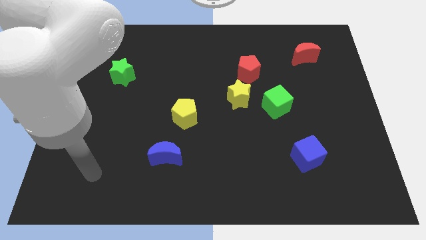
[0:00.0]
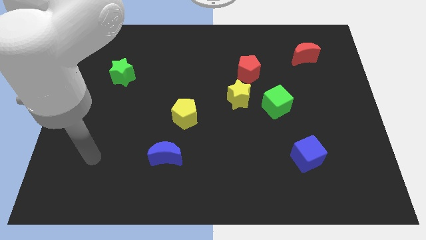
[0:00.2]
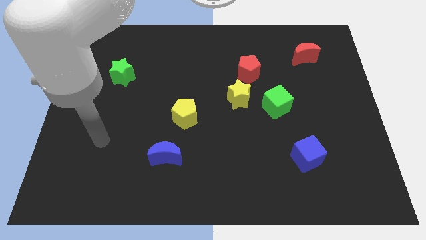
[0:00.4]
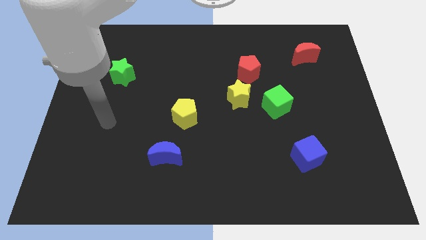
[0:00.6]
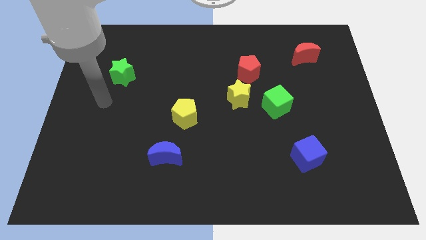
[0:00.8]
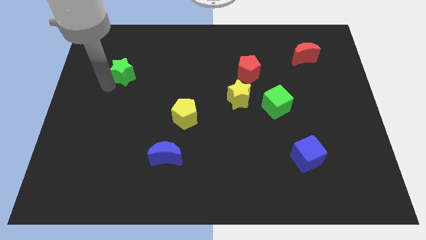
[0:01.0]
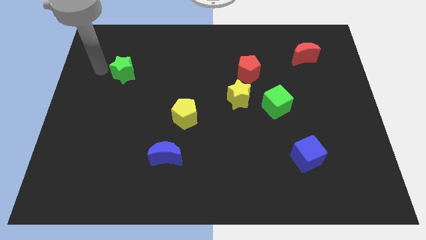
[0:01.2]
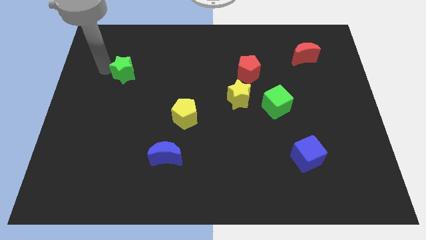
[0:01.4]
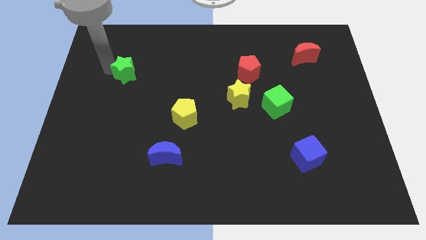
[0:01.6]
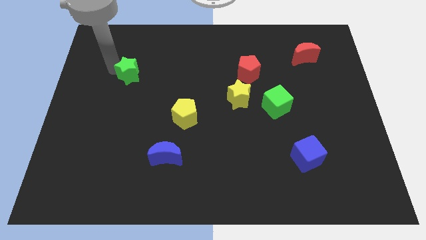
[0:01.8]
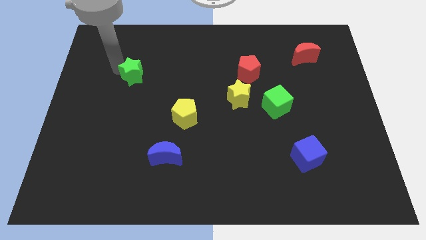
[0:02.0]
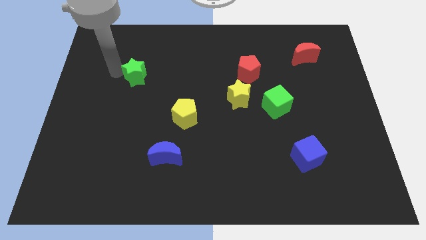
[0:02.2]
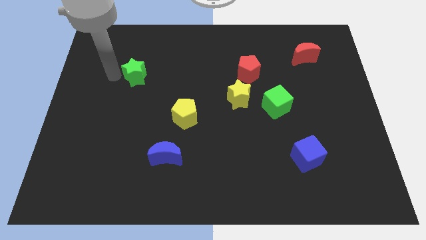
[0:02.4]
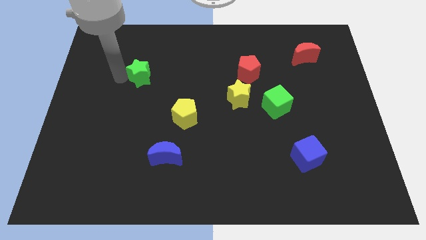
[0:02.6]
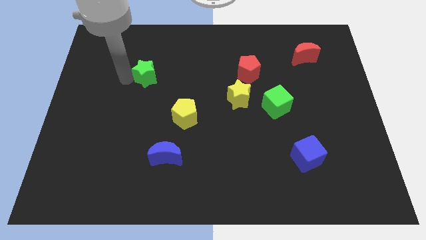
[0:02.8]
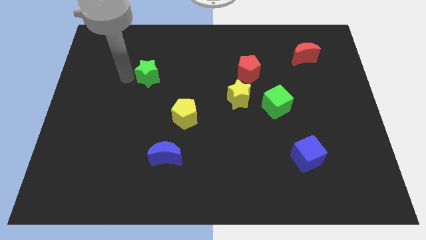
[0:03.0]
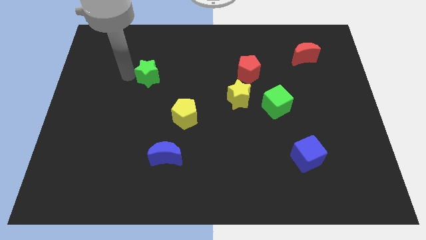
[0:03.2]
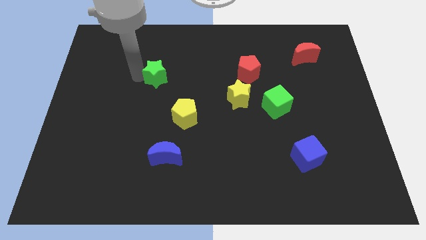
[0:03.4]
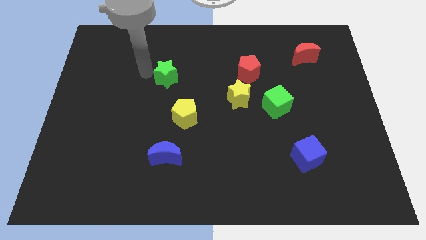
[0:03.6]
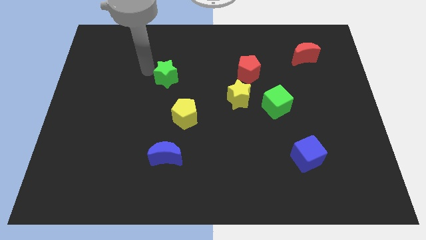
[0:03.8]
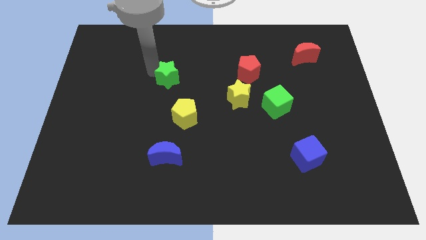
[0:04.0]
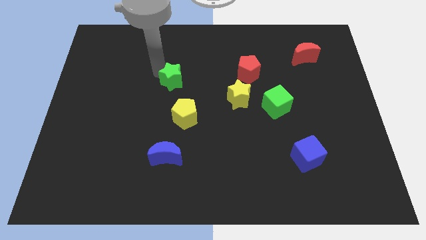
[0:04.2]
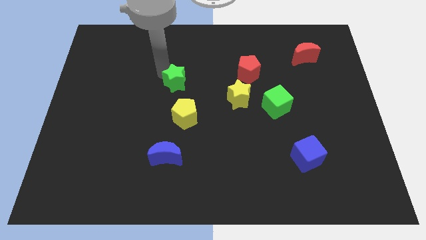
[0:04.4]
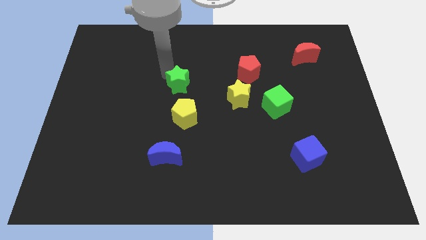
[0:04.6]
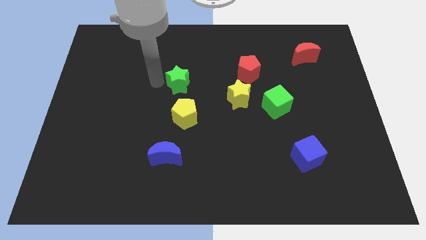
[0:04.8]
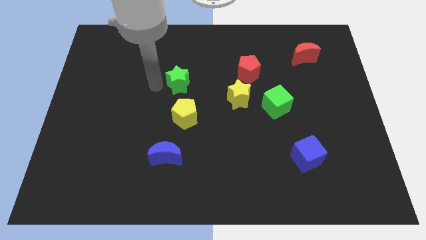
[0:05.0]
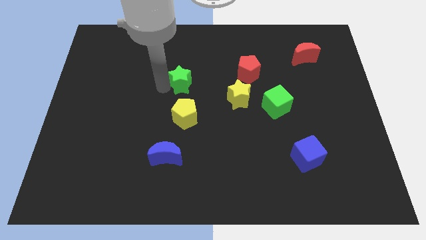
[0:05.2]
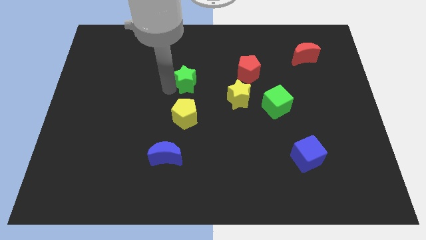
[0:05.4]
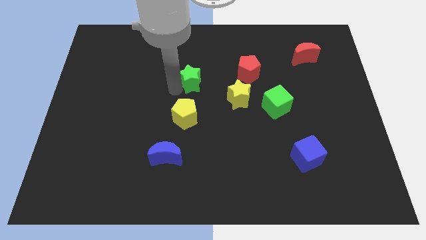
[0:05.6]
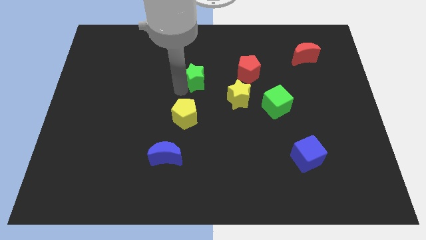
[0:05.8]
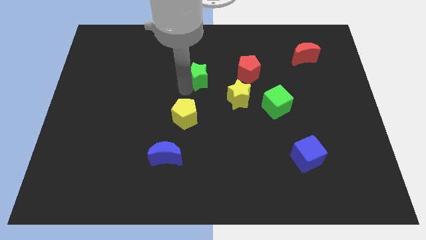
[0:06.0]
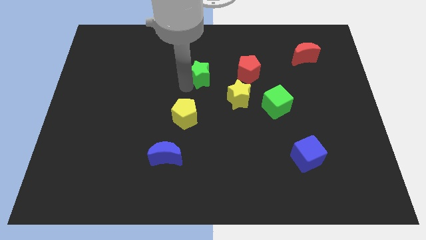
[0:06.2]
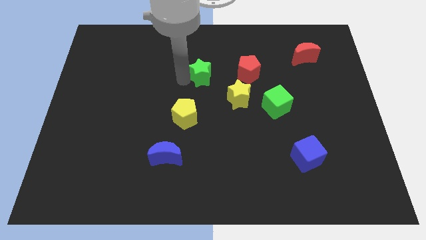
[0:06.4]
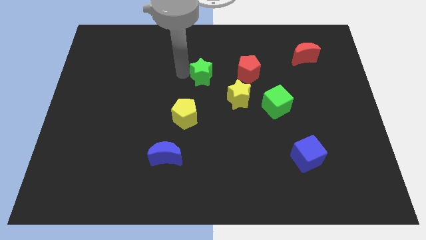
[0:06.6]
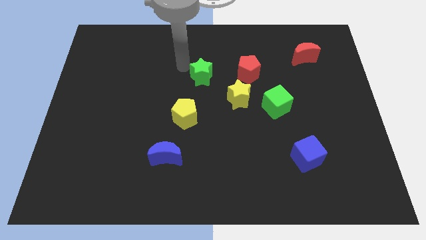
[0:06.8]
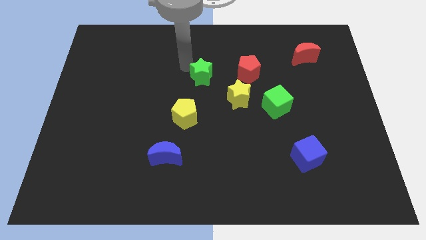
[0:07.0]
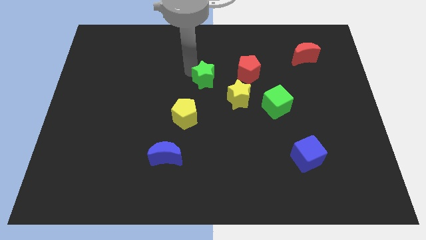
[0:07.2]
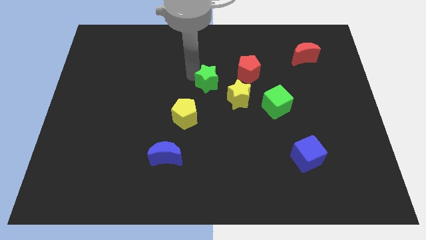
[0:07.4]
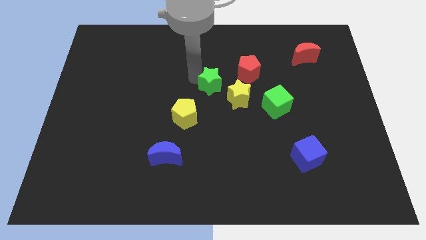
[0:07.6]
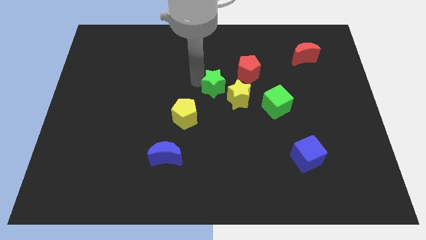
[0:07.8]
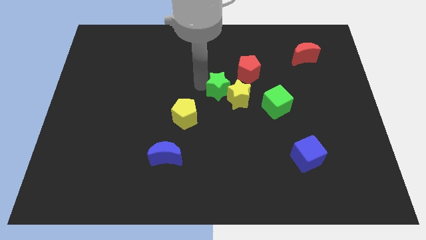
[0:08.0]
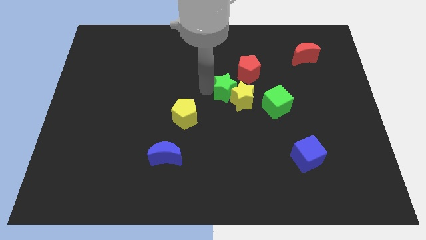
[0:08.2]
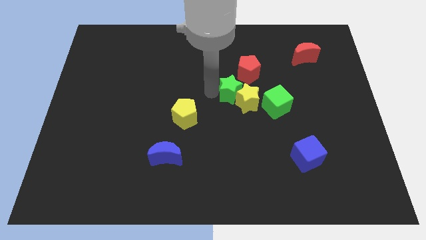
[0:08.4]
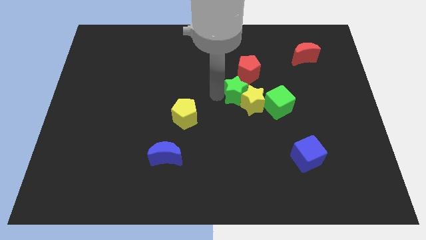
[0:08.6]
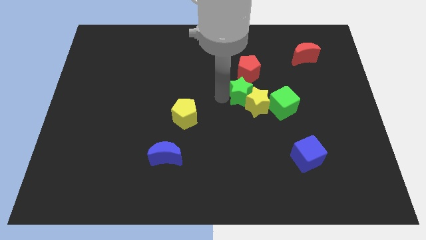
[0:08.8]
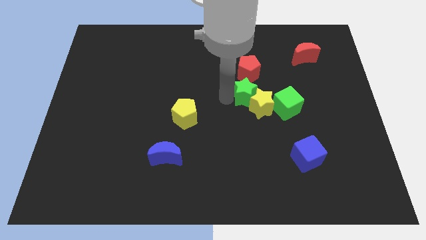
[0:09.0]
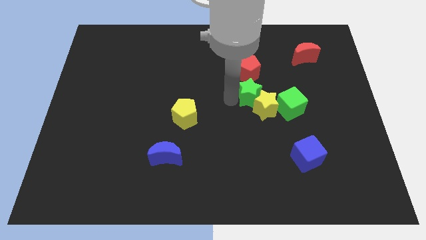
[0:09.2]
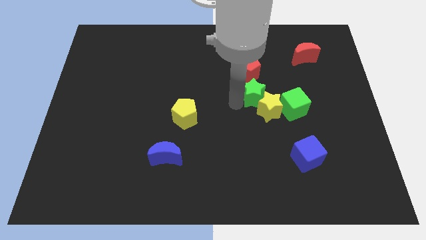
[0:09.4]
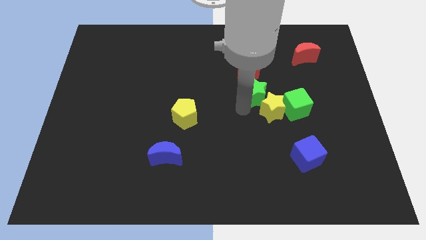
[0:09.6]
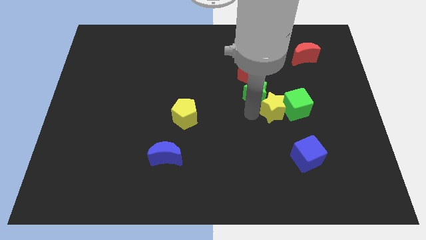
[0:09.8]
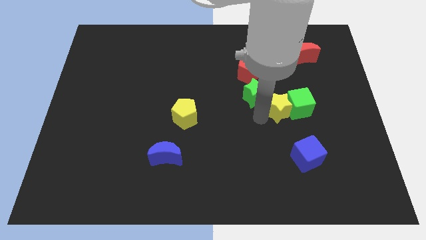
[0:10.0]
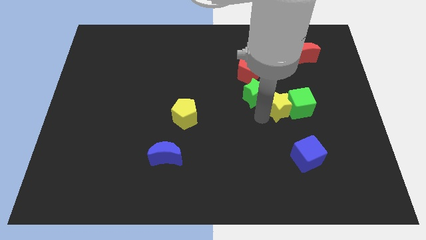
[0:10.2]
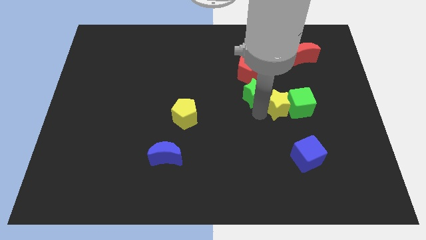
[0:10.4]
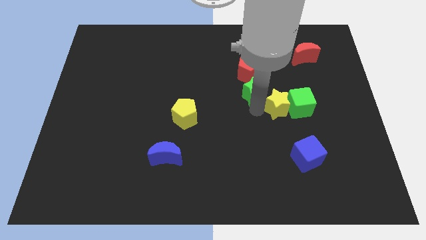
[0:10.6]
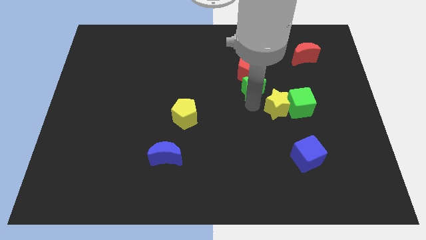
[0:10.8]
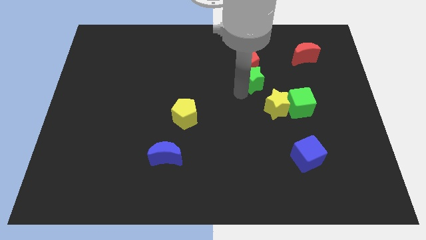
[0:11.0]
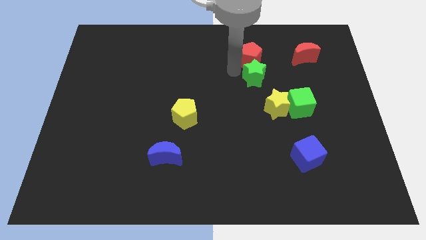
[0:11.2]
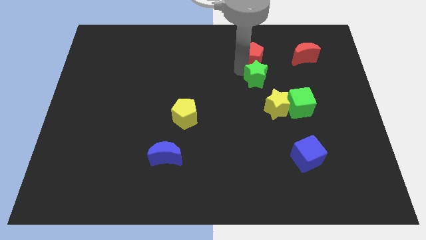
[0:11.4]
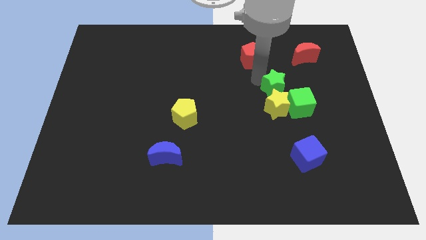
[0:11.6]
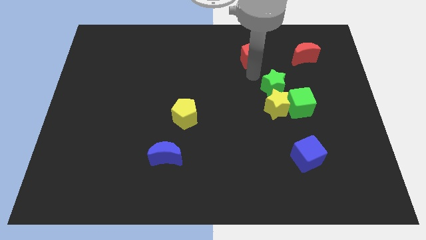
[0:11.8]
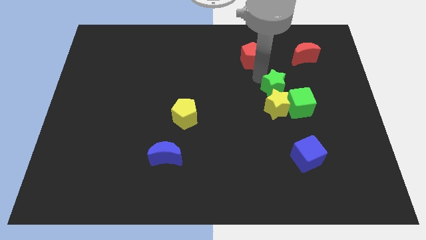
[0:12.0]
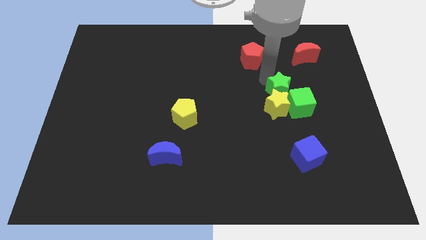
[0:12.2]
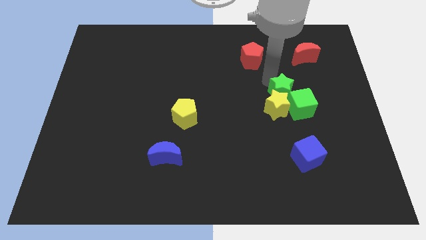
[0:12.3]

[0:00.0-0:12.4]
push the green star towards the green cube

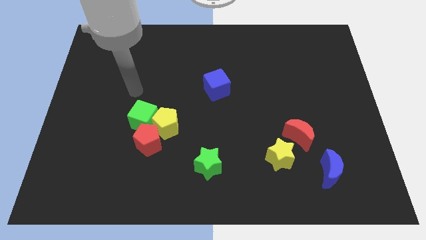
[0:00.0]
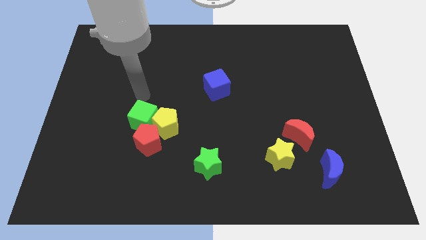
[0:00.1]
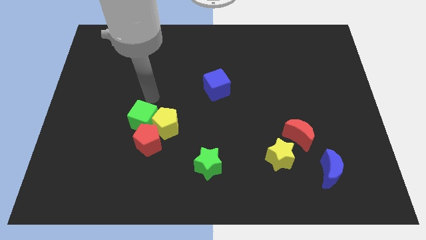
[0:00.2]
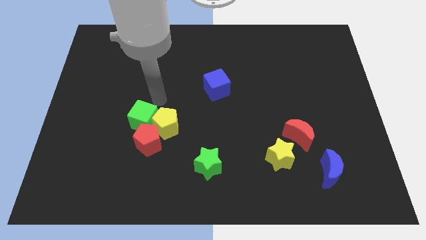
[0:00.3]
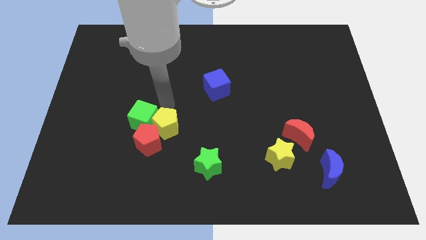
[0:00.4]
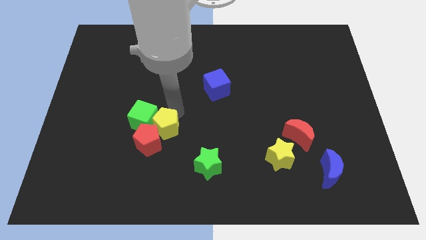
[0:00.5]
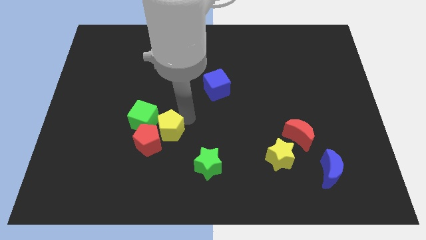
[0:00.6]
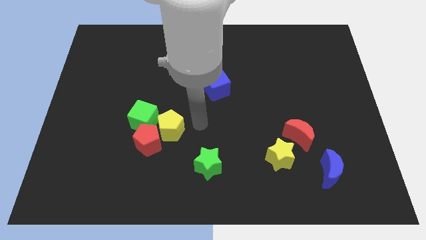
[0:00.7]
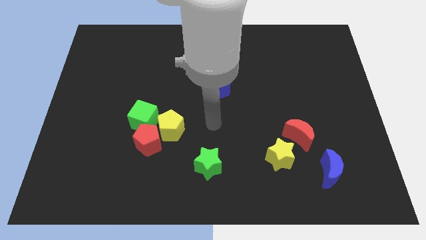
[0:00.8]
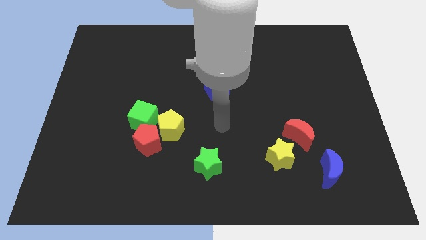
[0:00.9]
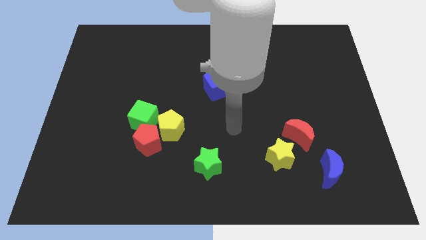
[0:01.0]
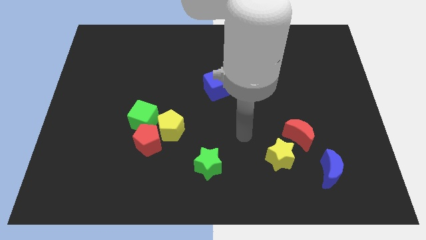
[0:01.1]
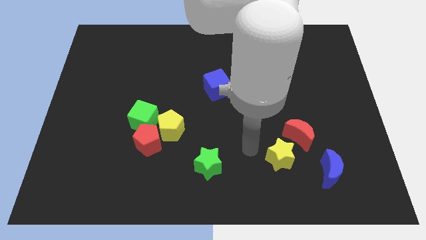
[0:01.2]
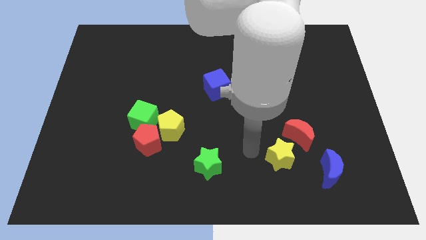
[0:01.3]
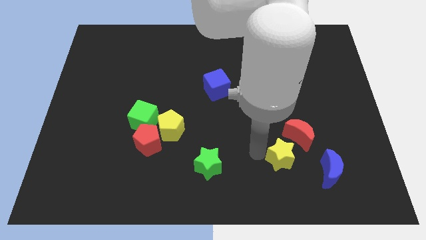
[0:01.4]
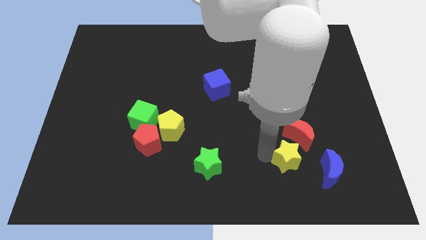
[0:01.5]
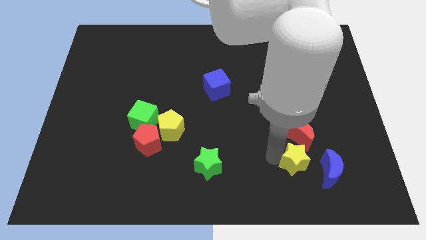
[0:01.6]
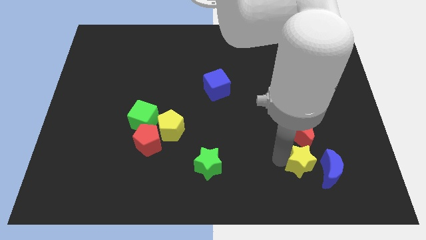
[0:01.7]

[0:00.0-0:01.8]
slide the yellow star to the blue moon

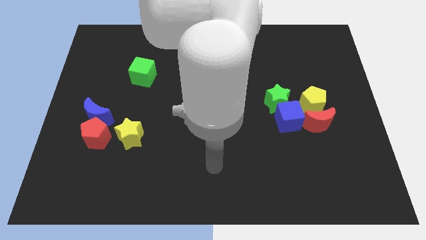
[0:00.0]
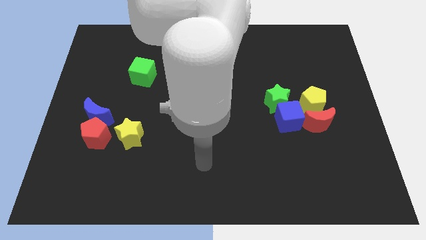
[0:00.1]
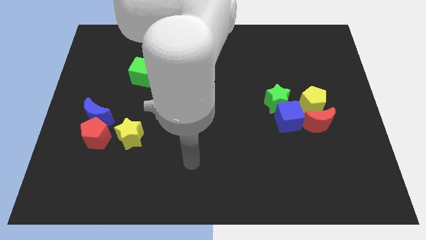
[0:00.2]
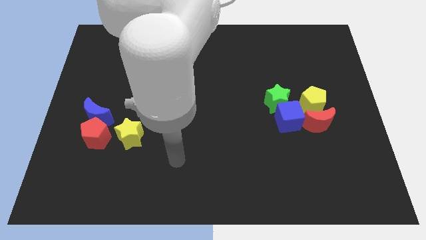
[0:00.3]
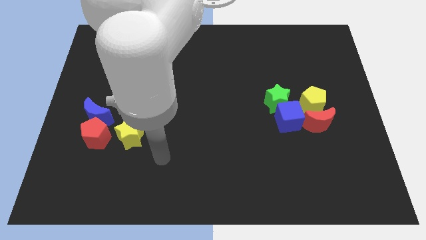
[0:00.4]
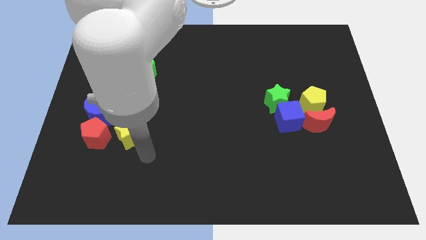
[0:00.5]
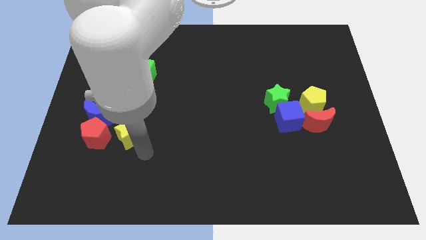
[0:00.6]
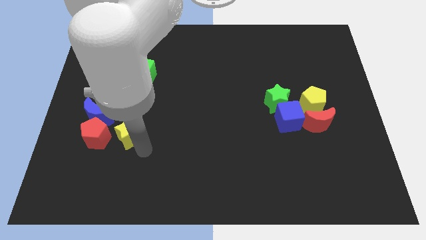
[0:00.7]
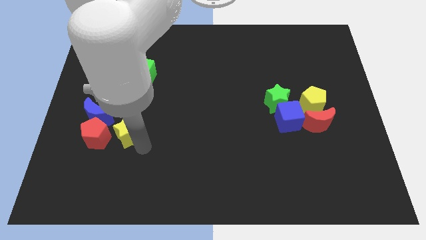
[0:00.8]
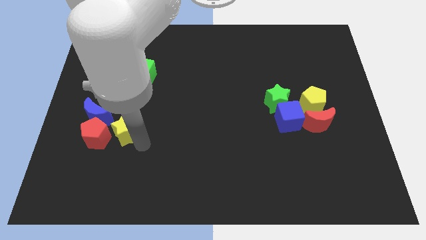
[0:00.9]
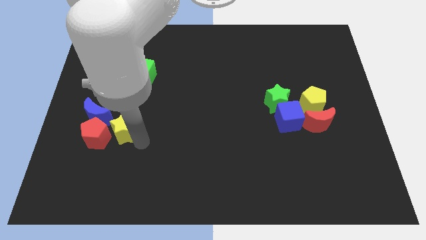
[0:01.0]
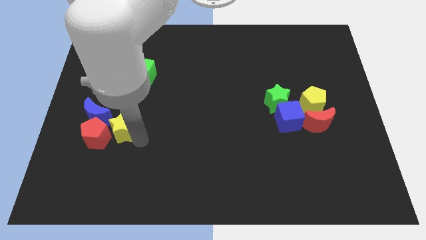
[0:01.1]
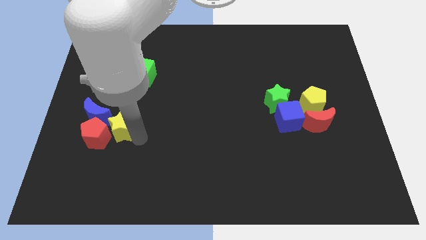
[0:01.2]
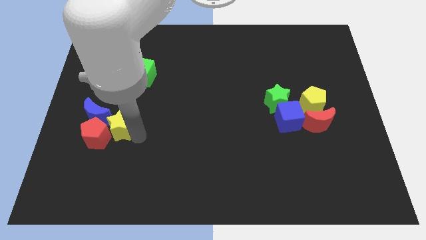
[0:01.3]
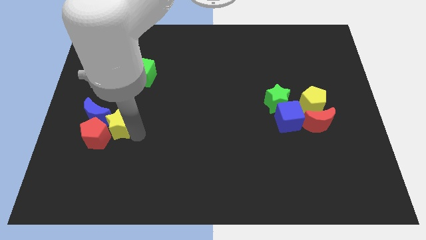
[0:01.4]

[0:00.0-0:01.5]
push the yellow star towards the blue moon
